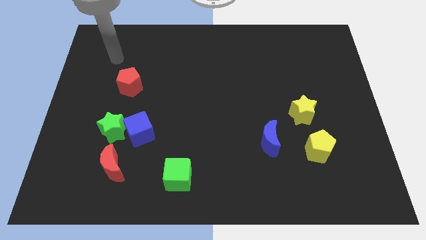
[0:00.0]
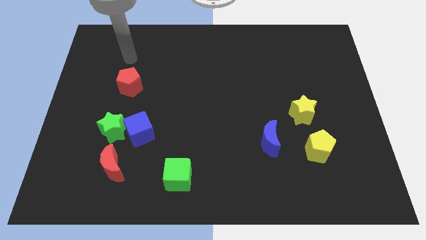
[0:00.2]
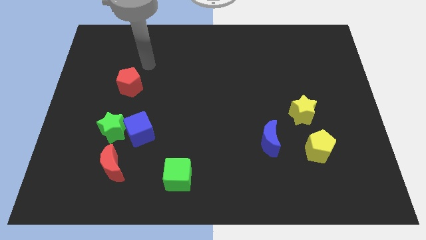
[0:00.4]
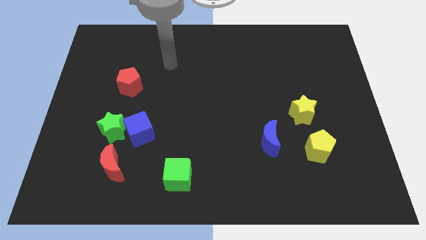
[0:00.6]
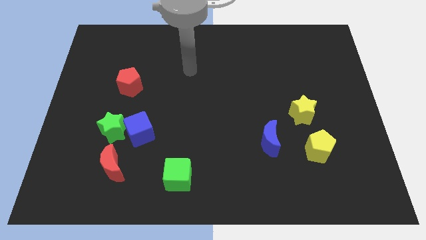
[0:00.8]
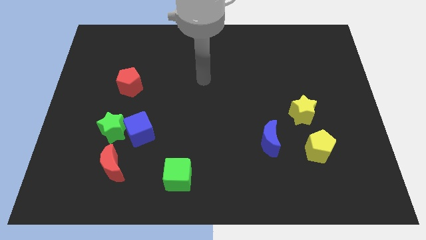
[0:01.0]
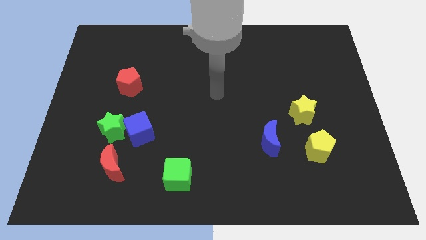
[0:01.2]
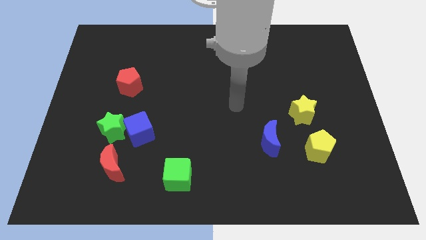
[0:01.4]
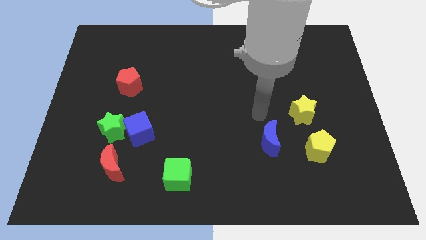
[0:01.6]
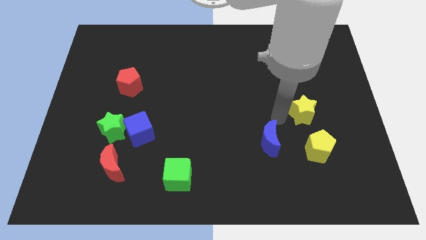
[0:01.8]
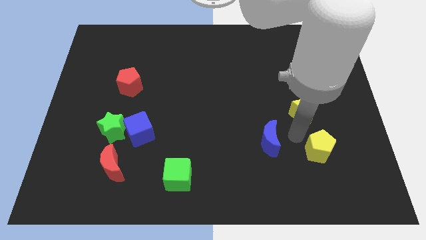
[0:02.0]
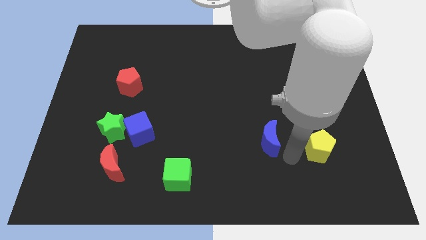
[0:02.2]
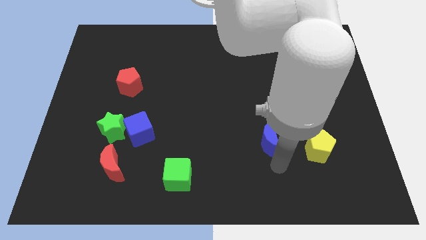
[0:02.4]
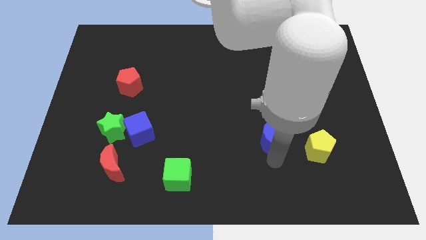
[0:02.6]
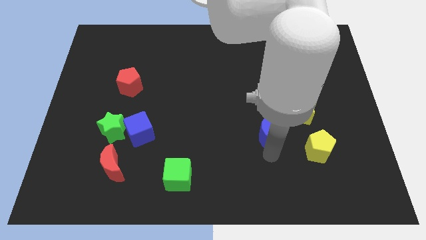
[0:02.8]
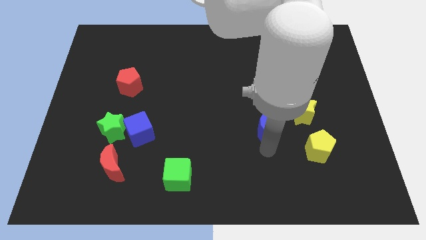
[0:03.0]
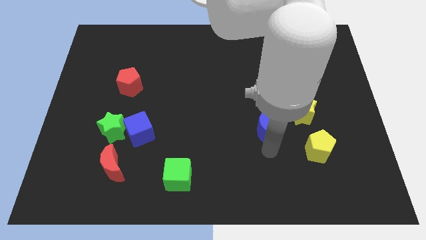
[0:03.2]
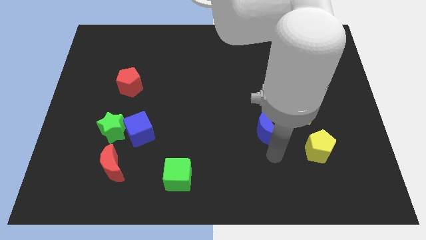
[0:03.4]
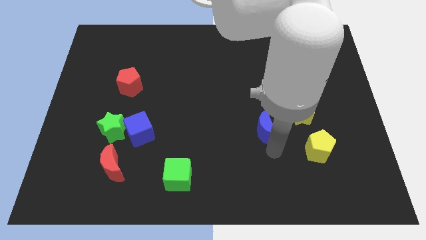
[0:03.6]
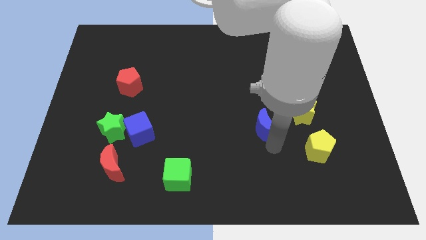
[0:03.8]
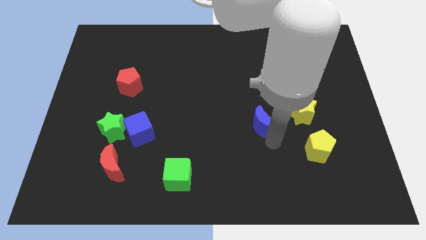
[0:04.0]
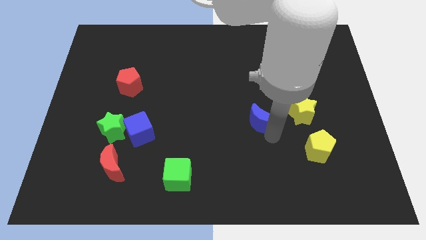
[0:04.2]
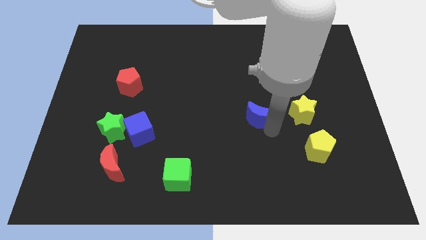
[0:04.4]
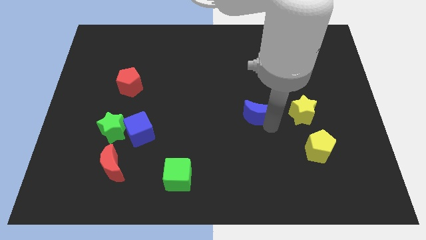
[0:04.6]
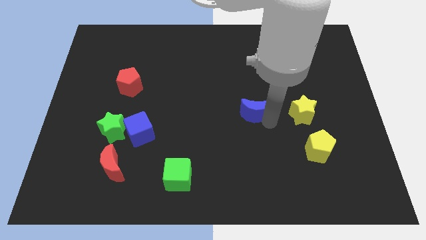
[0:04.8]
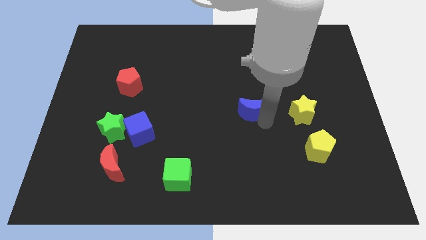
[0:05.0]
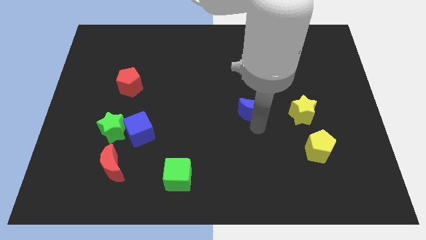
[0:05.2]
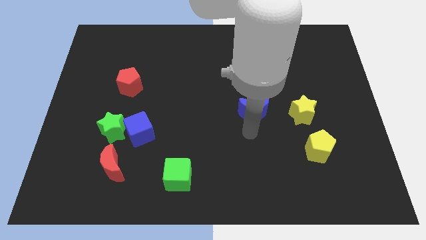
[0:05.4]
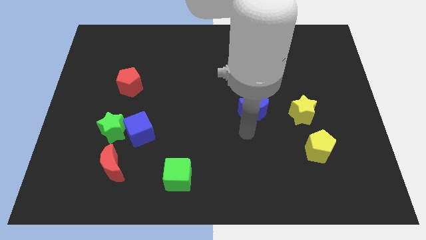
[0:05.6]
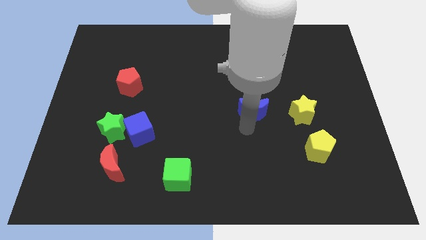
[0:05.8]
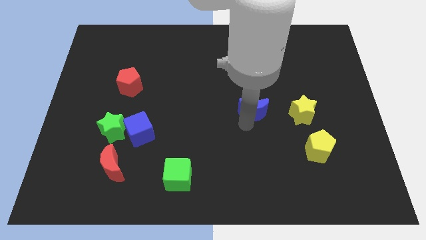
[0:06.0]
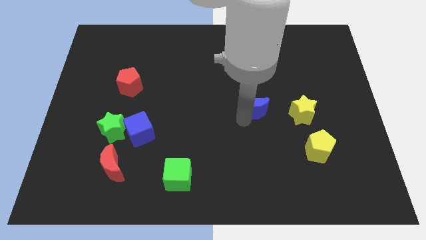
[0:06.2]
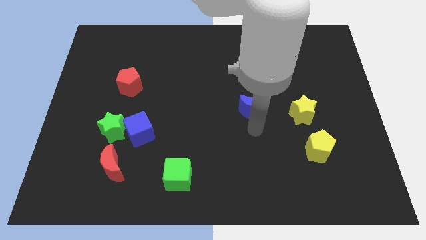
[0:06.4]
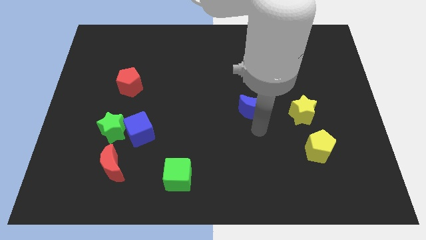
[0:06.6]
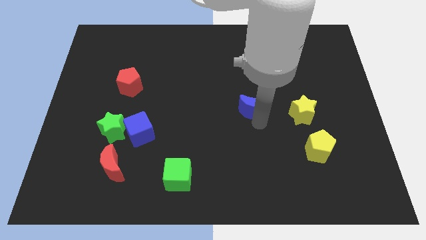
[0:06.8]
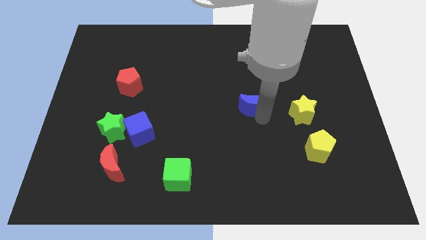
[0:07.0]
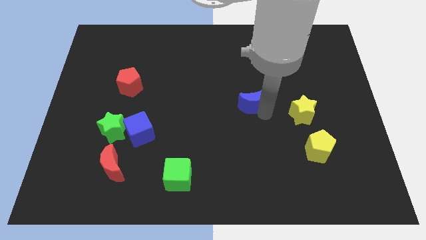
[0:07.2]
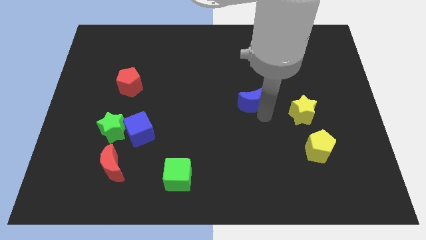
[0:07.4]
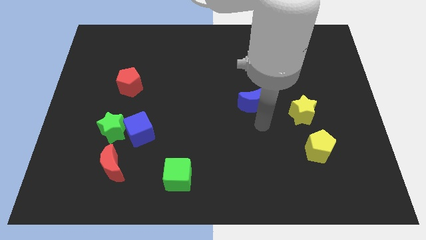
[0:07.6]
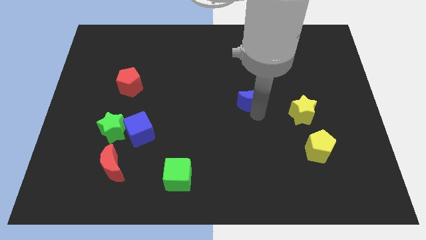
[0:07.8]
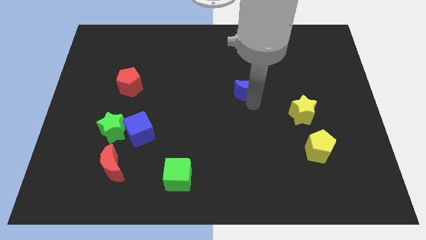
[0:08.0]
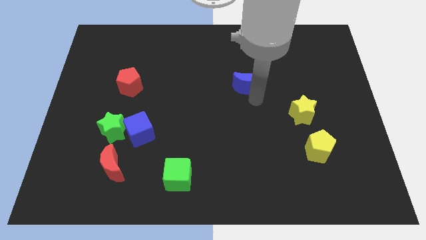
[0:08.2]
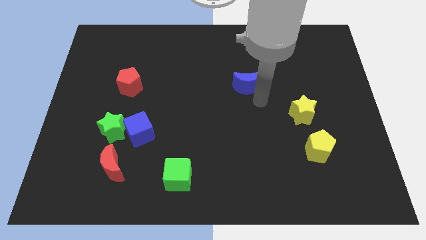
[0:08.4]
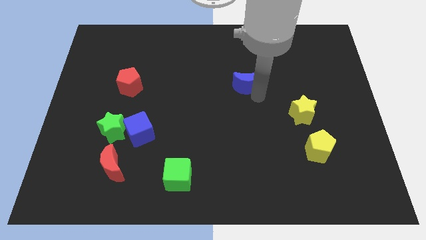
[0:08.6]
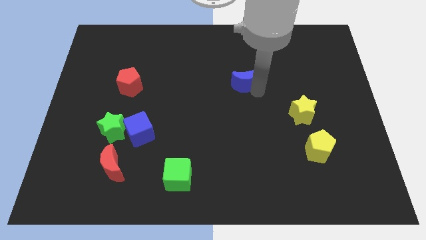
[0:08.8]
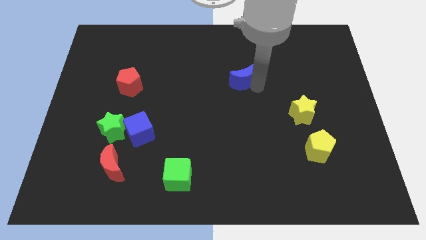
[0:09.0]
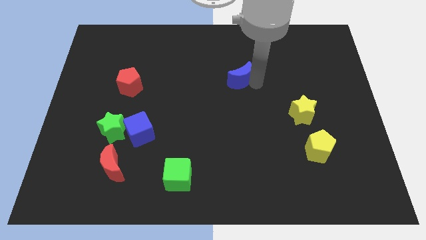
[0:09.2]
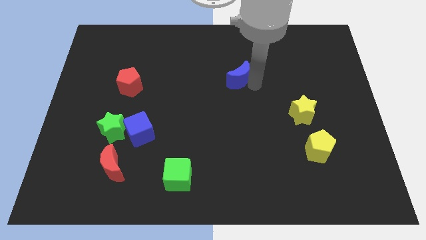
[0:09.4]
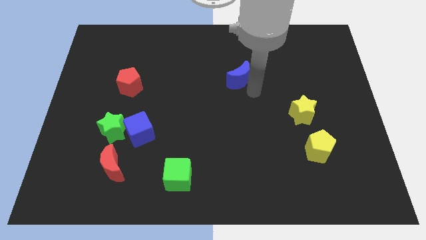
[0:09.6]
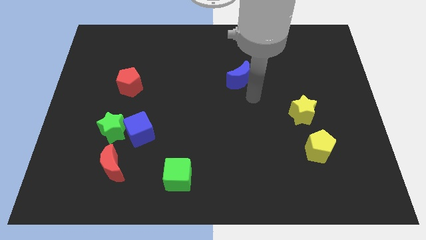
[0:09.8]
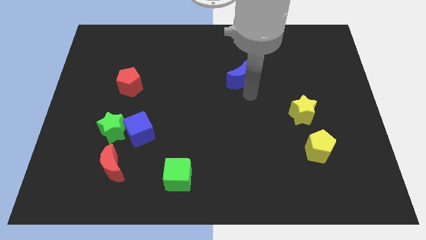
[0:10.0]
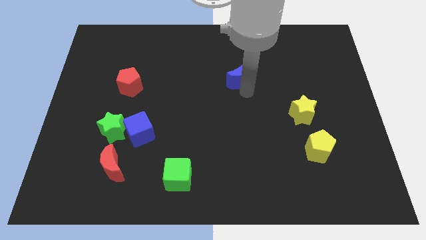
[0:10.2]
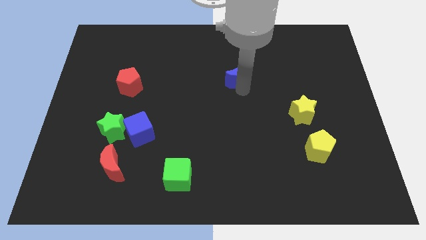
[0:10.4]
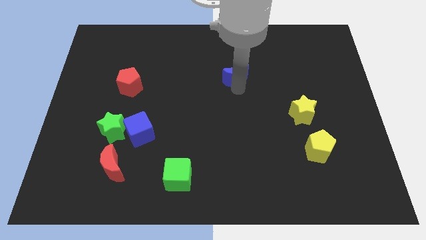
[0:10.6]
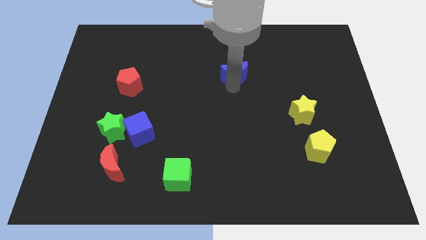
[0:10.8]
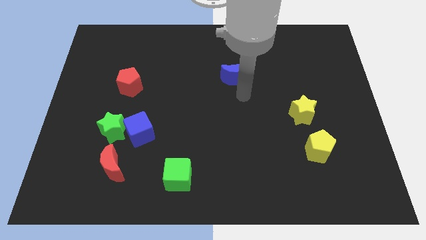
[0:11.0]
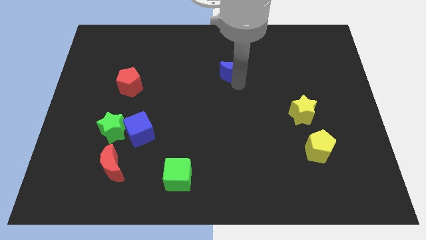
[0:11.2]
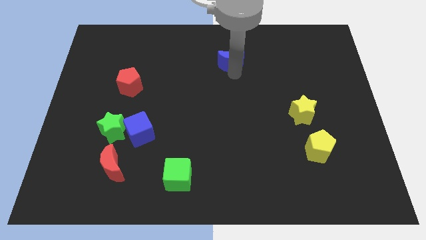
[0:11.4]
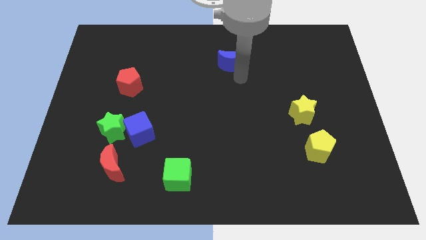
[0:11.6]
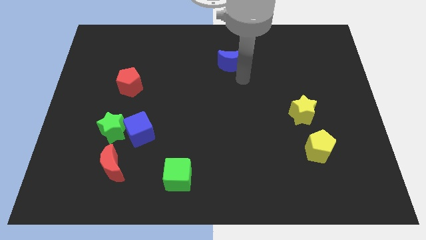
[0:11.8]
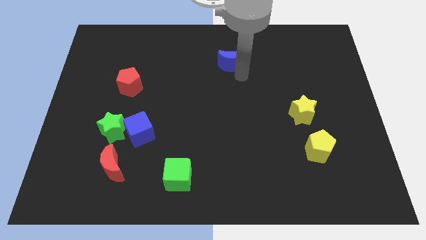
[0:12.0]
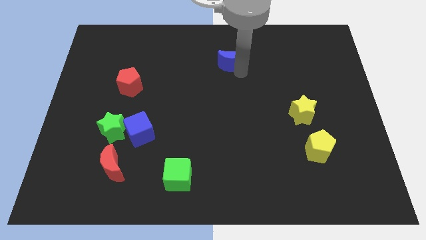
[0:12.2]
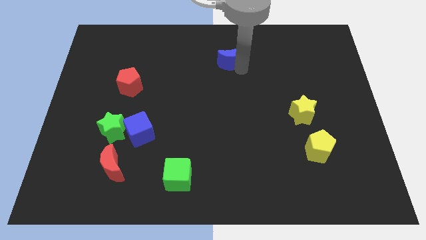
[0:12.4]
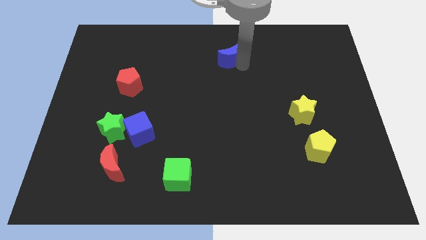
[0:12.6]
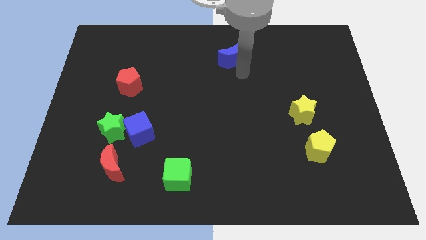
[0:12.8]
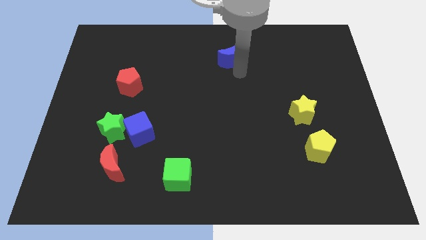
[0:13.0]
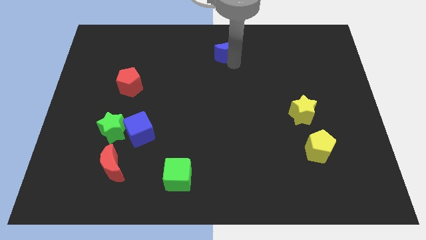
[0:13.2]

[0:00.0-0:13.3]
push the blue moon to the towards your base

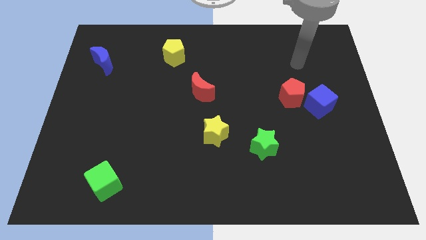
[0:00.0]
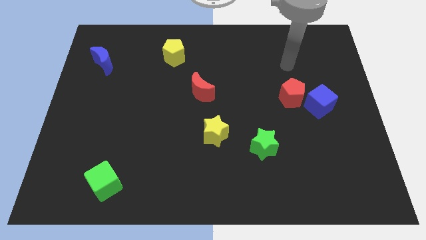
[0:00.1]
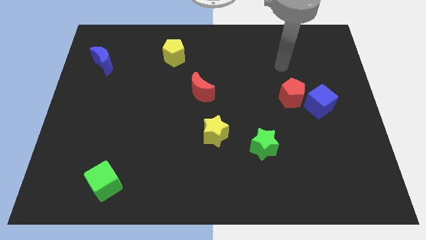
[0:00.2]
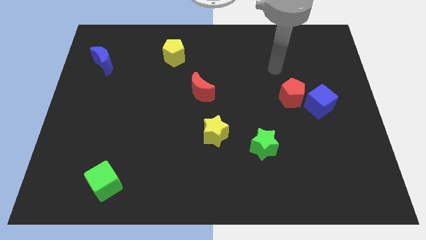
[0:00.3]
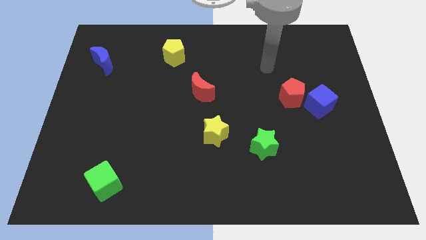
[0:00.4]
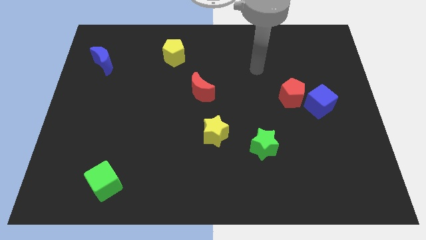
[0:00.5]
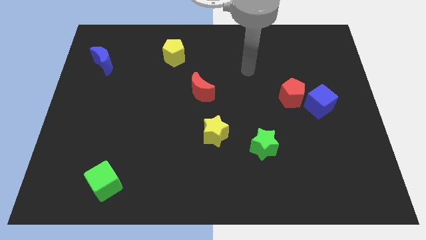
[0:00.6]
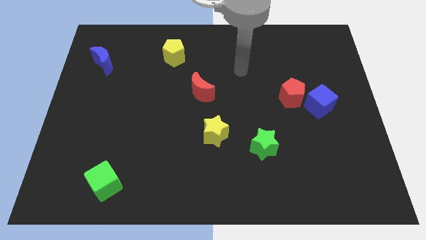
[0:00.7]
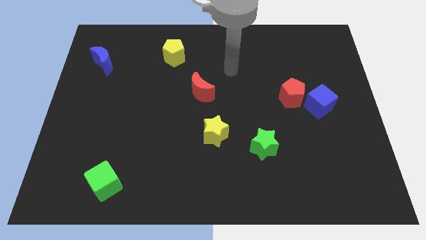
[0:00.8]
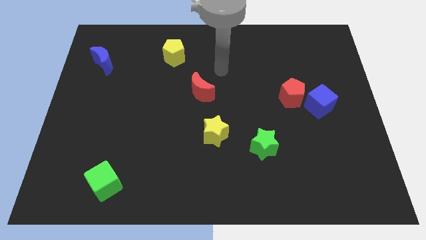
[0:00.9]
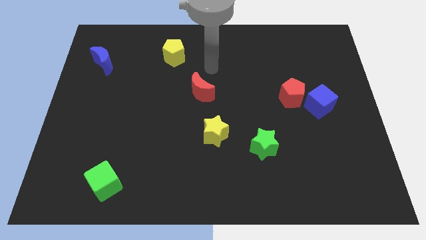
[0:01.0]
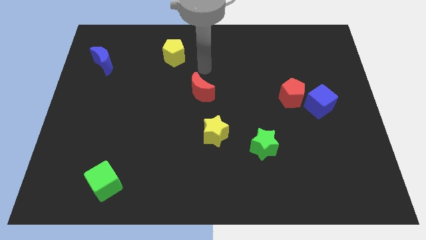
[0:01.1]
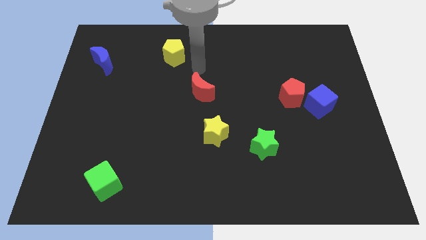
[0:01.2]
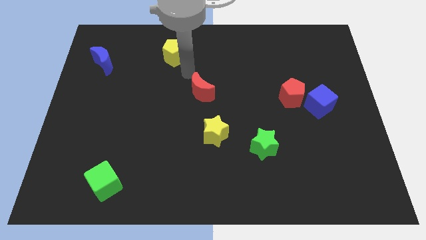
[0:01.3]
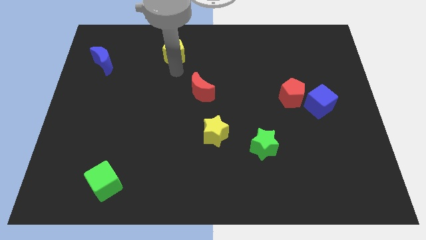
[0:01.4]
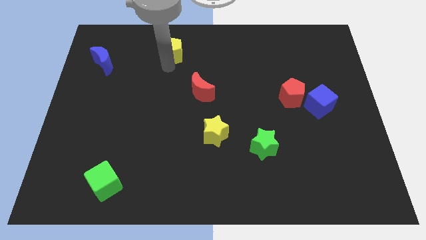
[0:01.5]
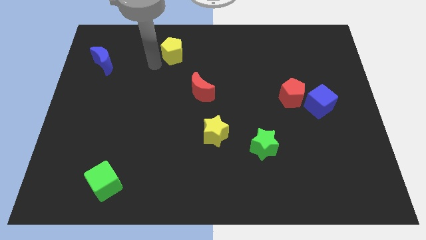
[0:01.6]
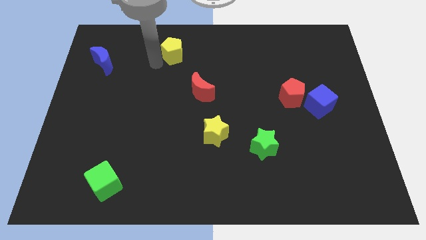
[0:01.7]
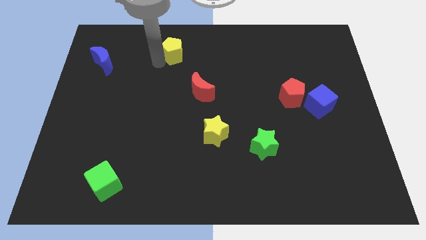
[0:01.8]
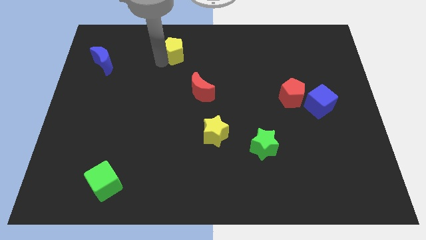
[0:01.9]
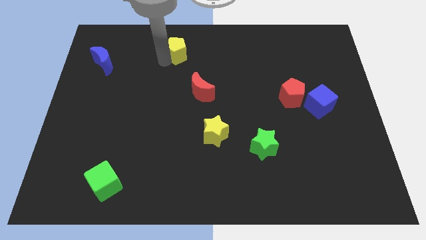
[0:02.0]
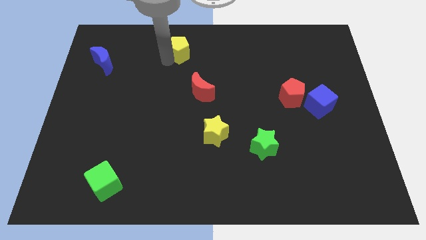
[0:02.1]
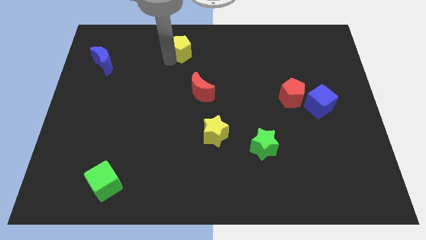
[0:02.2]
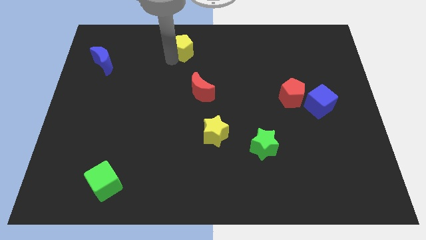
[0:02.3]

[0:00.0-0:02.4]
move the yellow pentagon to the top
